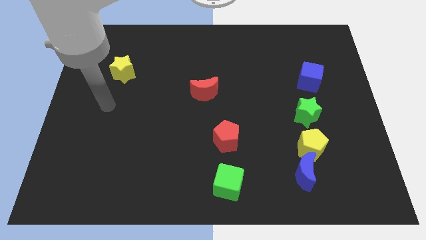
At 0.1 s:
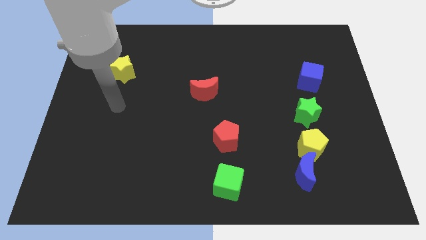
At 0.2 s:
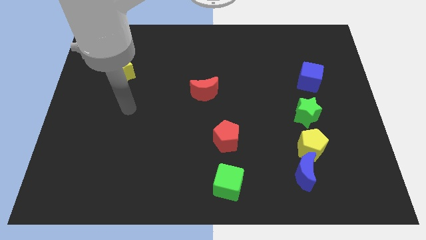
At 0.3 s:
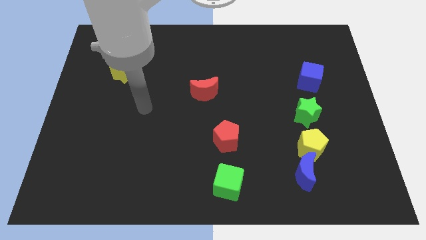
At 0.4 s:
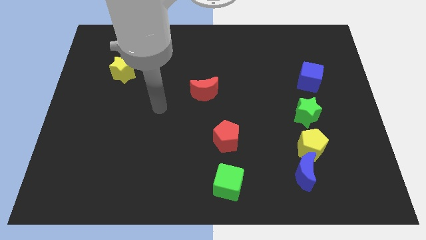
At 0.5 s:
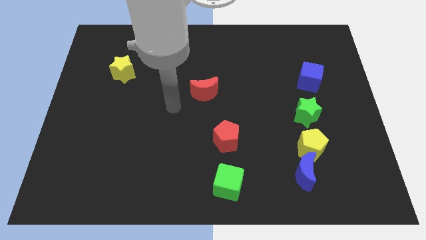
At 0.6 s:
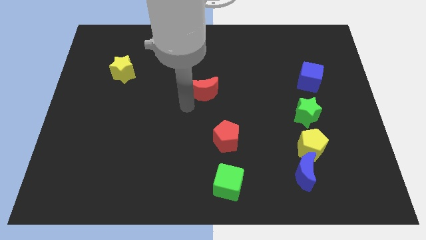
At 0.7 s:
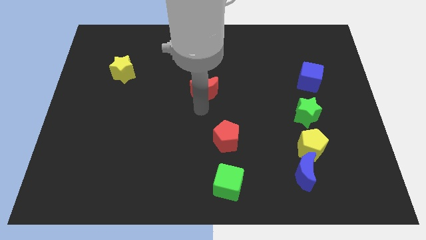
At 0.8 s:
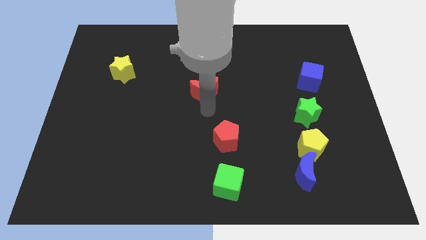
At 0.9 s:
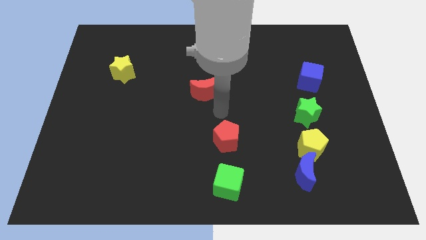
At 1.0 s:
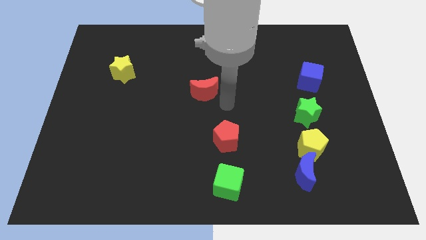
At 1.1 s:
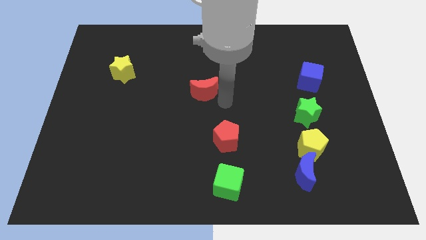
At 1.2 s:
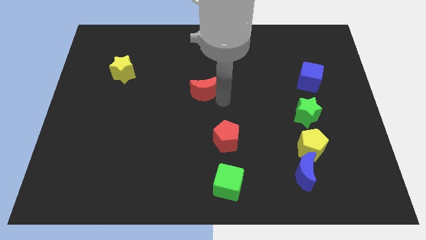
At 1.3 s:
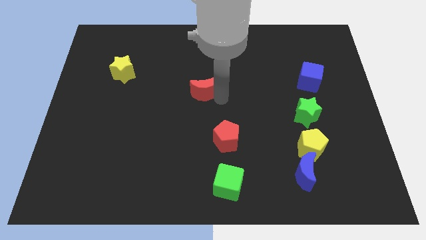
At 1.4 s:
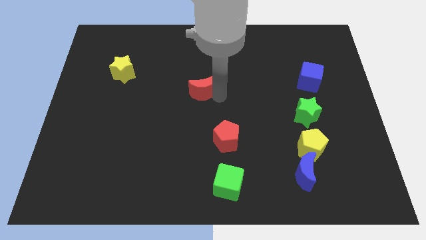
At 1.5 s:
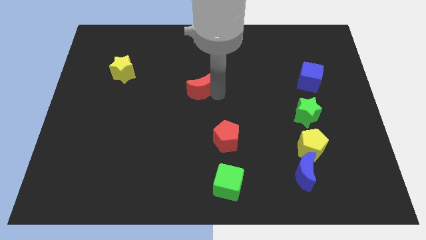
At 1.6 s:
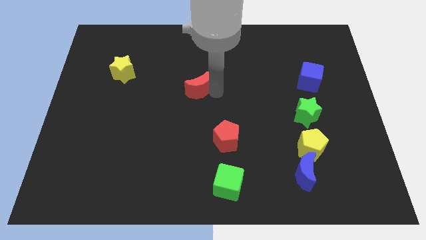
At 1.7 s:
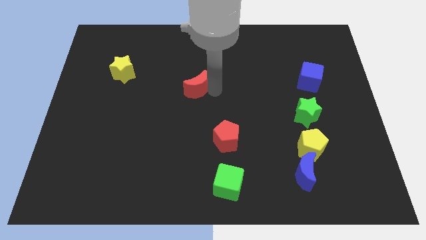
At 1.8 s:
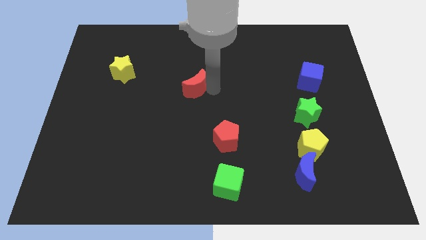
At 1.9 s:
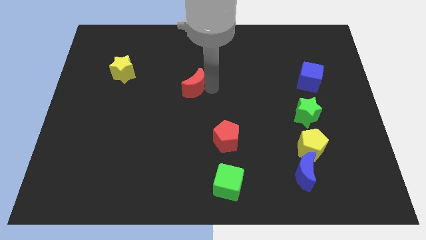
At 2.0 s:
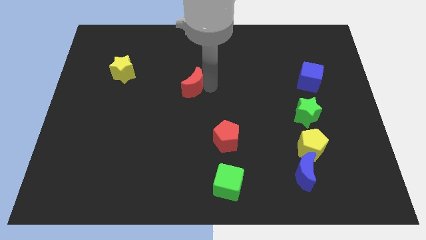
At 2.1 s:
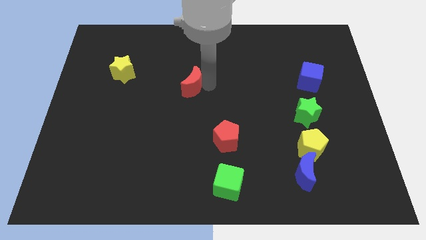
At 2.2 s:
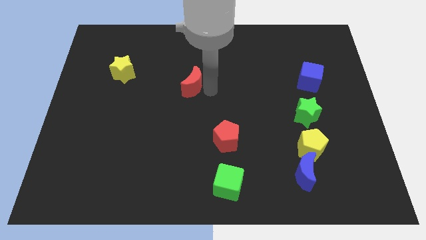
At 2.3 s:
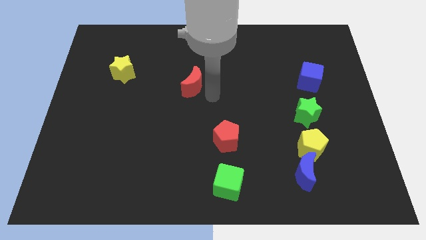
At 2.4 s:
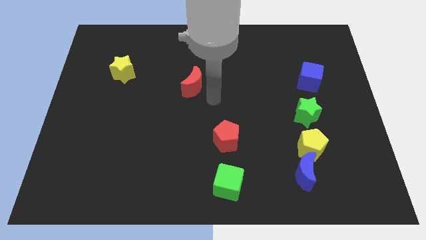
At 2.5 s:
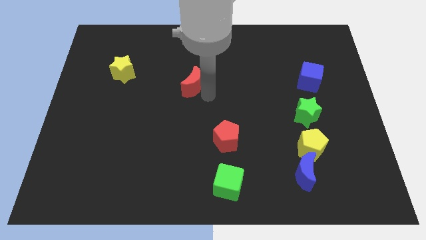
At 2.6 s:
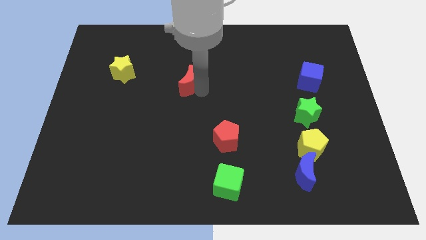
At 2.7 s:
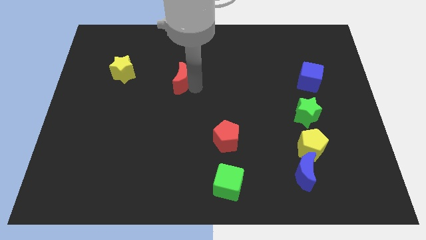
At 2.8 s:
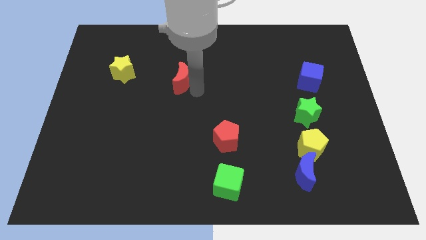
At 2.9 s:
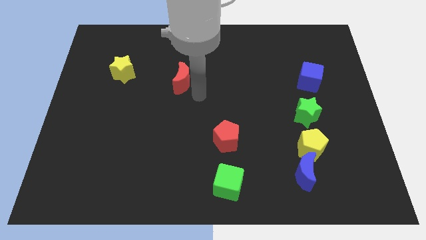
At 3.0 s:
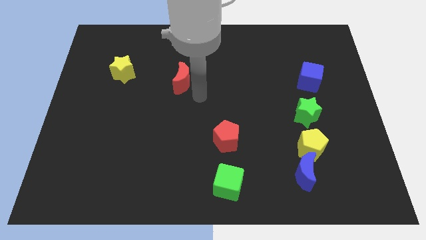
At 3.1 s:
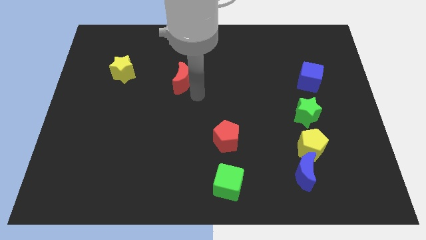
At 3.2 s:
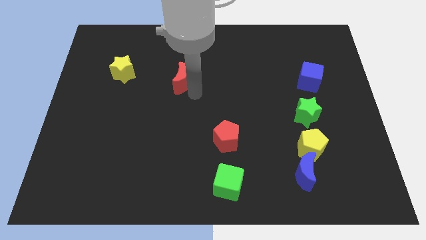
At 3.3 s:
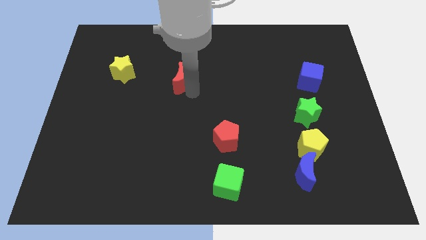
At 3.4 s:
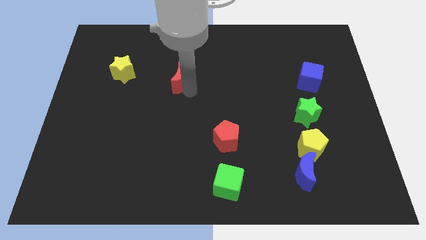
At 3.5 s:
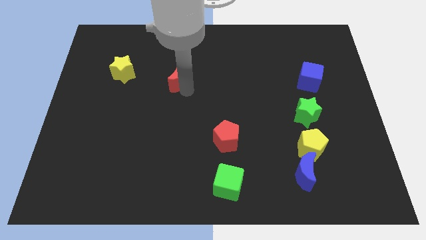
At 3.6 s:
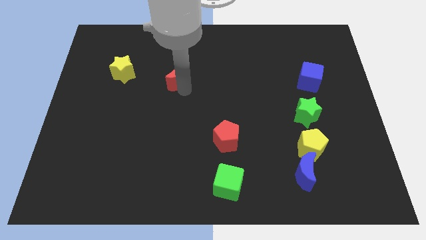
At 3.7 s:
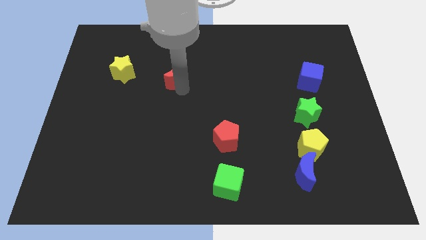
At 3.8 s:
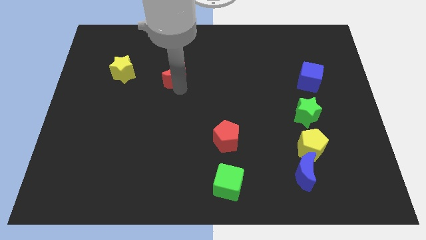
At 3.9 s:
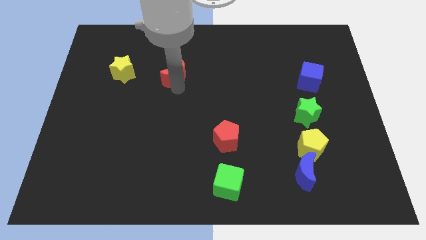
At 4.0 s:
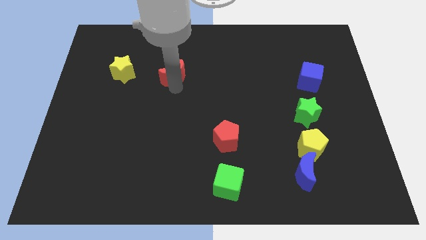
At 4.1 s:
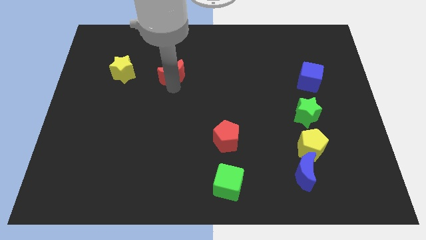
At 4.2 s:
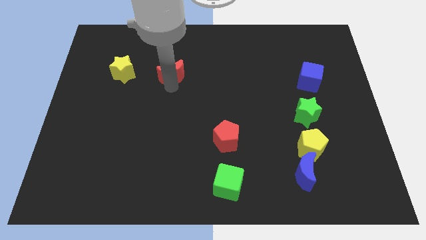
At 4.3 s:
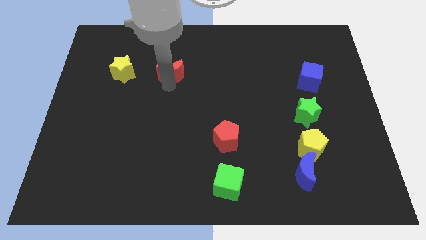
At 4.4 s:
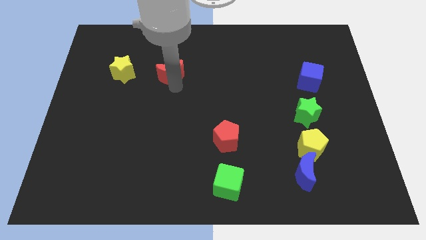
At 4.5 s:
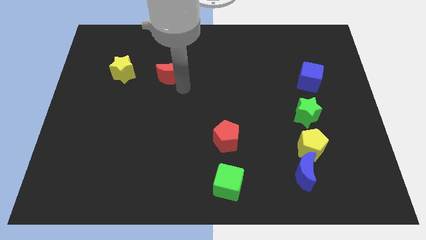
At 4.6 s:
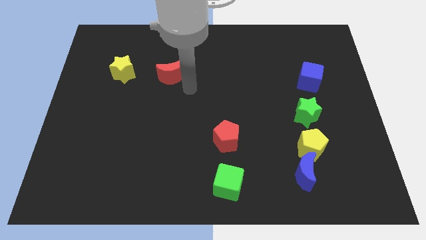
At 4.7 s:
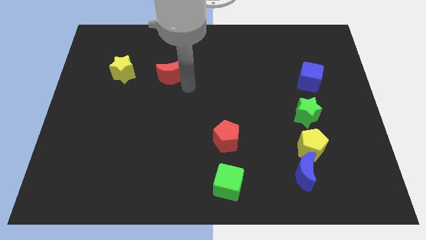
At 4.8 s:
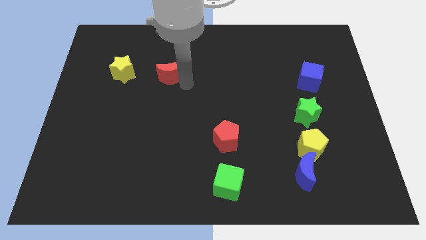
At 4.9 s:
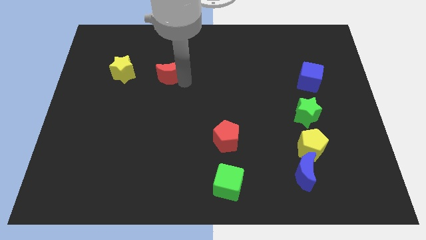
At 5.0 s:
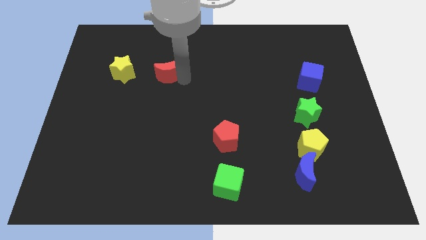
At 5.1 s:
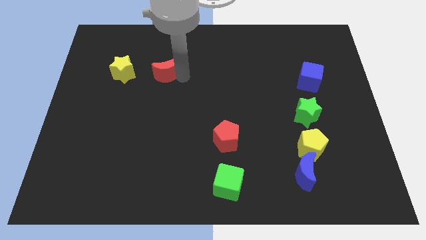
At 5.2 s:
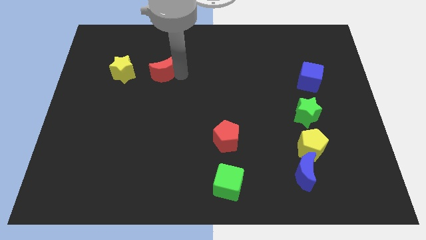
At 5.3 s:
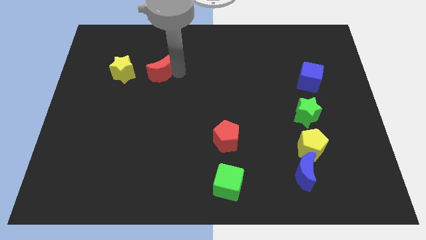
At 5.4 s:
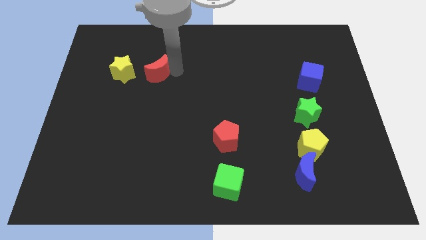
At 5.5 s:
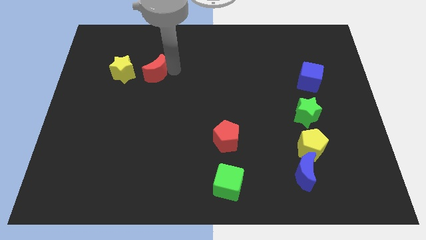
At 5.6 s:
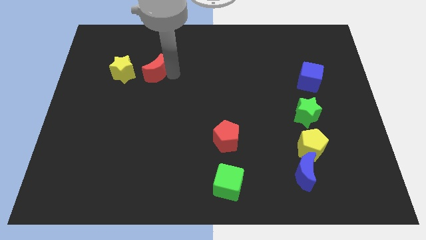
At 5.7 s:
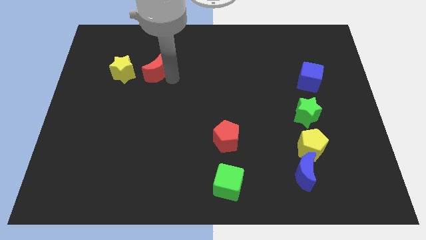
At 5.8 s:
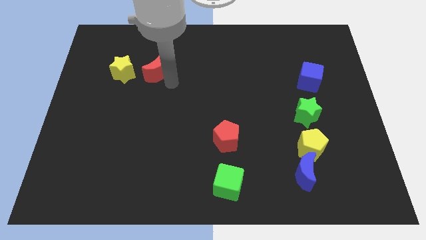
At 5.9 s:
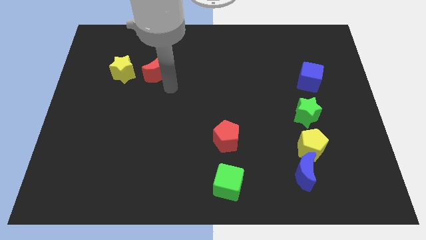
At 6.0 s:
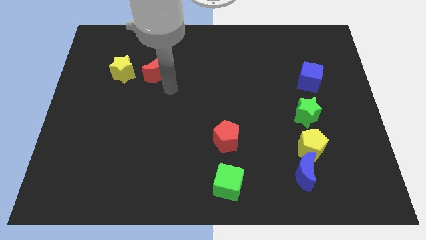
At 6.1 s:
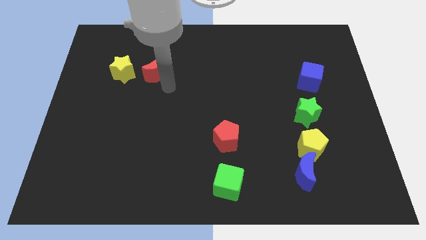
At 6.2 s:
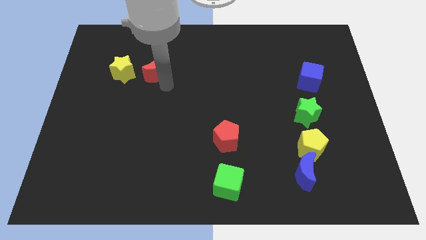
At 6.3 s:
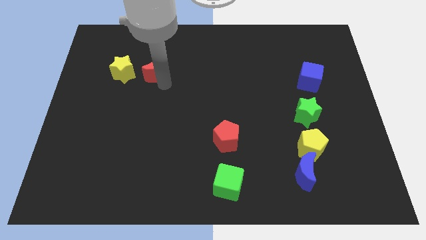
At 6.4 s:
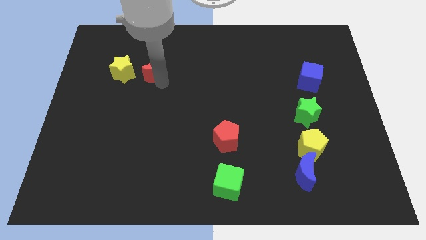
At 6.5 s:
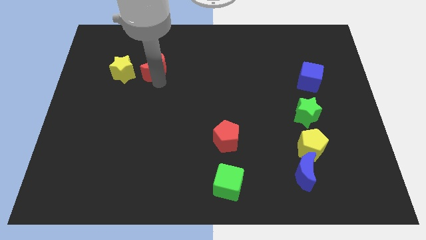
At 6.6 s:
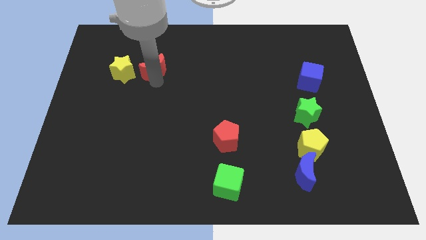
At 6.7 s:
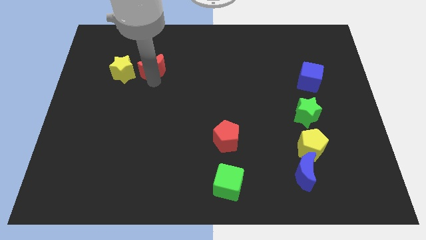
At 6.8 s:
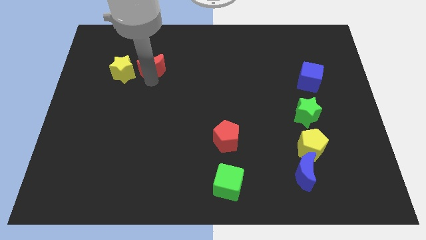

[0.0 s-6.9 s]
move the red moon to the top right of the yellow star
